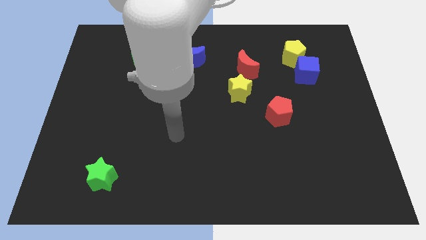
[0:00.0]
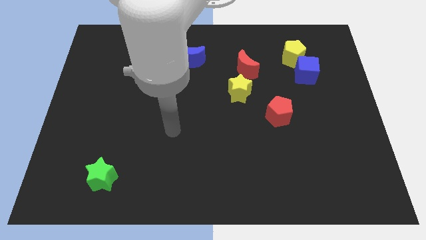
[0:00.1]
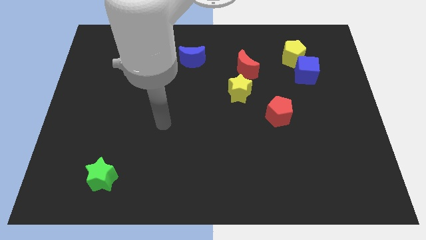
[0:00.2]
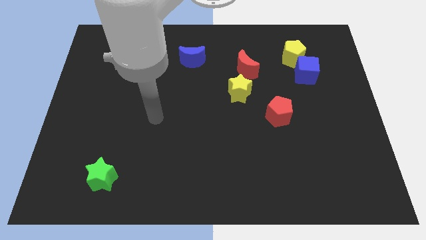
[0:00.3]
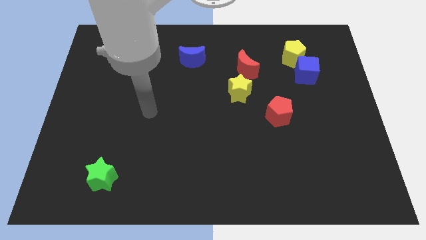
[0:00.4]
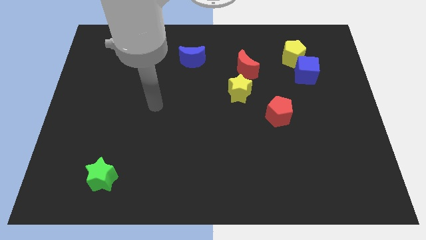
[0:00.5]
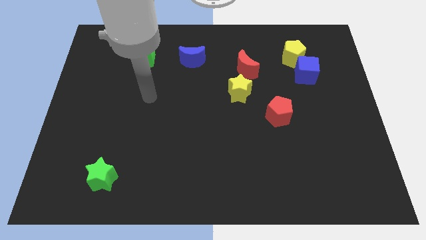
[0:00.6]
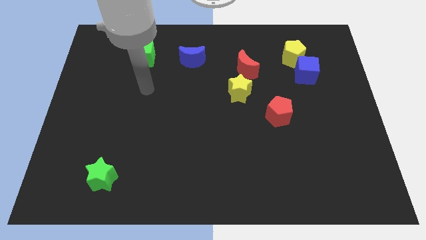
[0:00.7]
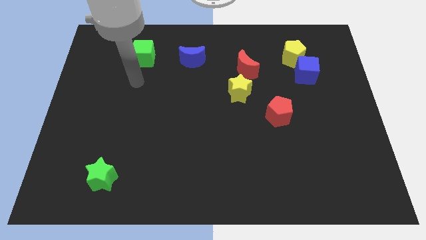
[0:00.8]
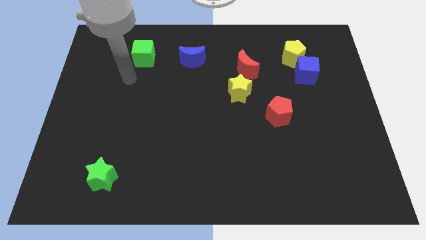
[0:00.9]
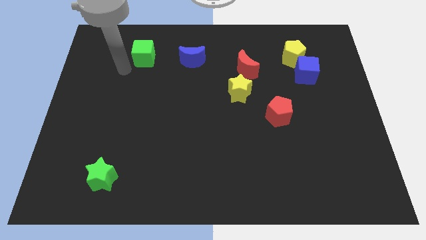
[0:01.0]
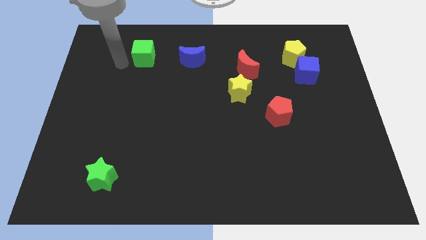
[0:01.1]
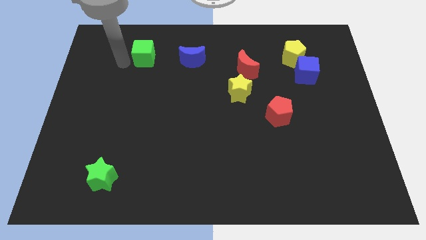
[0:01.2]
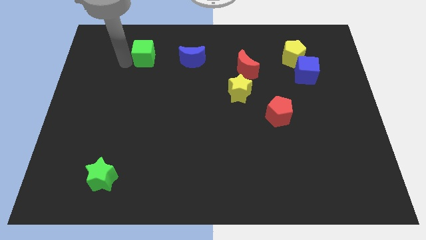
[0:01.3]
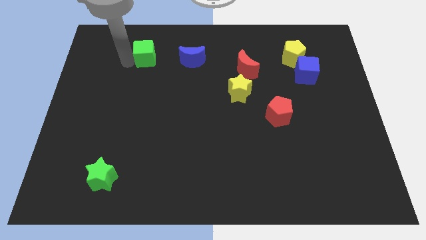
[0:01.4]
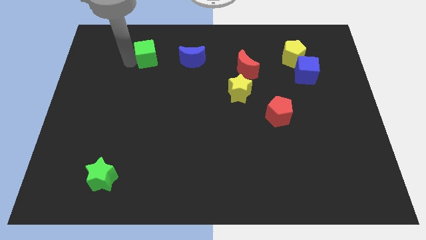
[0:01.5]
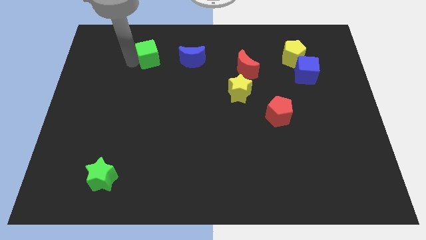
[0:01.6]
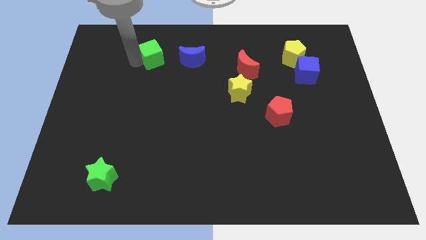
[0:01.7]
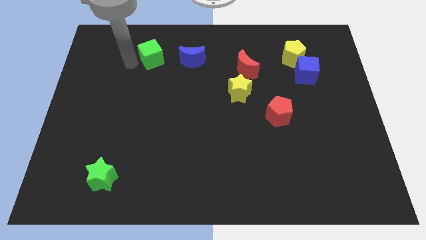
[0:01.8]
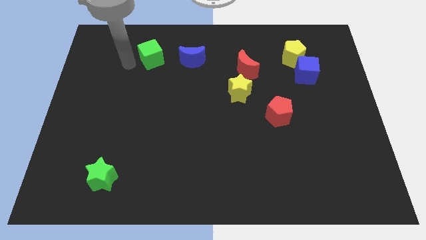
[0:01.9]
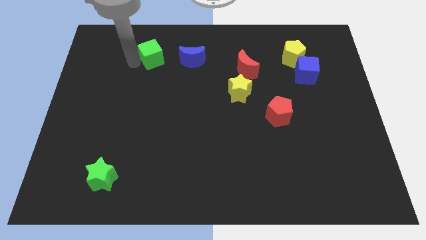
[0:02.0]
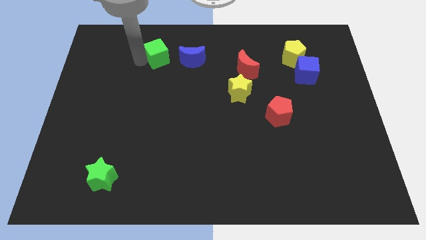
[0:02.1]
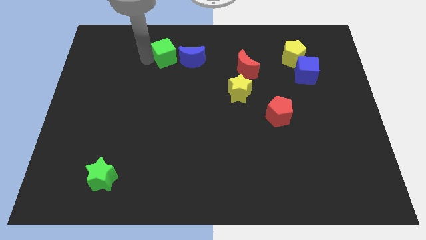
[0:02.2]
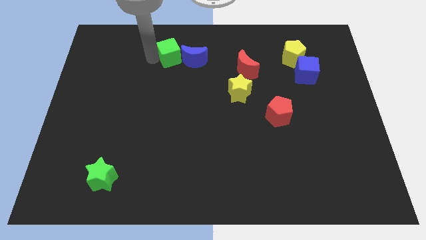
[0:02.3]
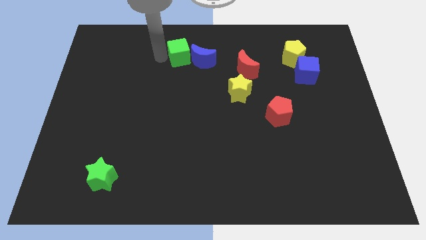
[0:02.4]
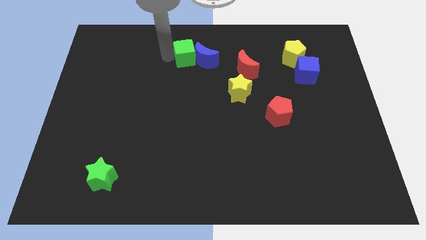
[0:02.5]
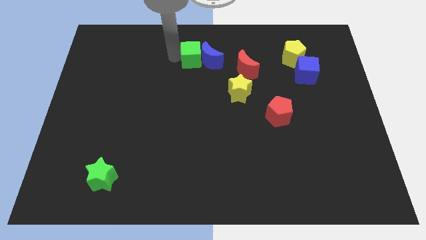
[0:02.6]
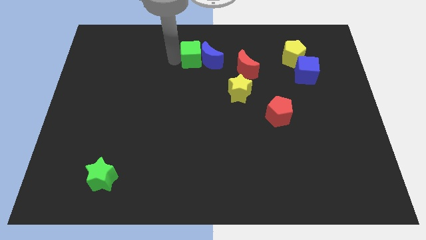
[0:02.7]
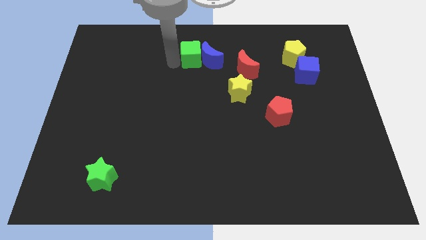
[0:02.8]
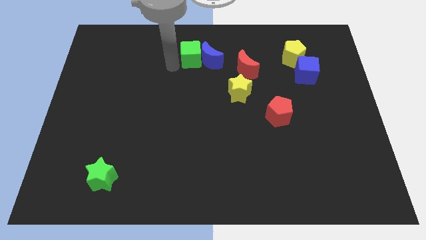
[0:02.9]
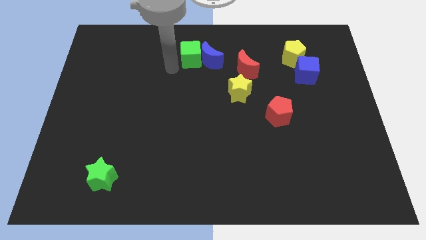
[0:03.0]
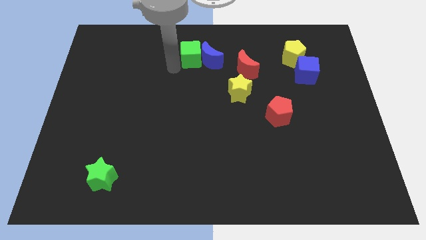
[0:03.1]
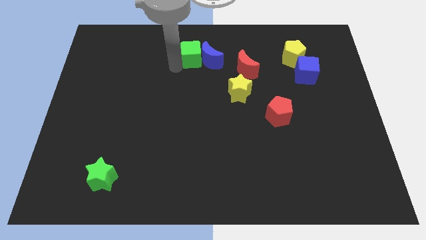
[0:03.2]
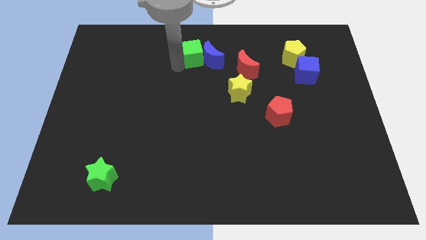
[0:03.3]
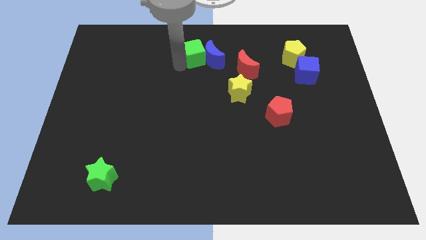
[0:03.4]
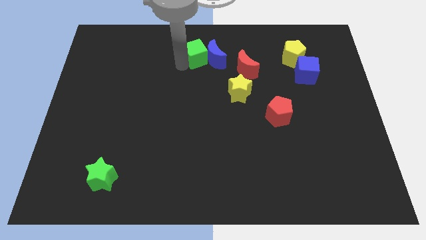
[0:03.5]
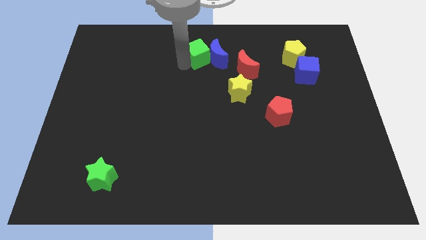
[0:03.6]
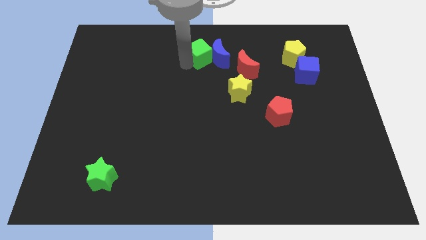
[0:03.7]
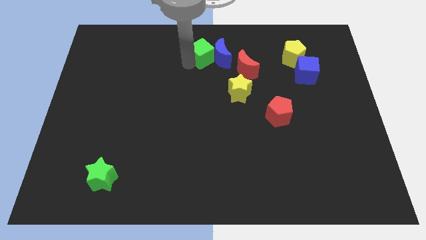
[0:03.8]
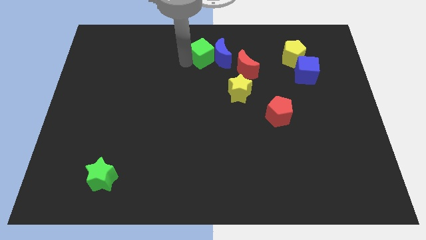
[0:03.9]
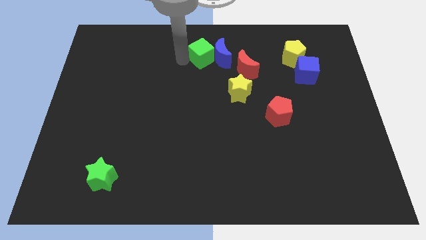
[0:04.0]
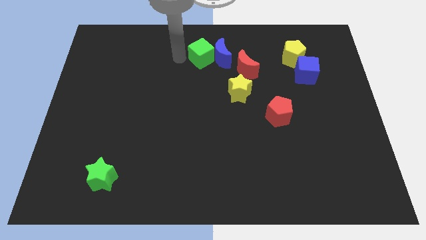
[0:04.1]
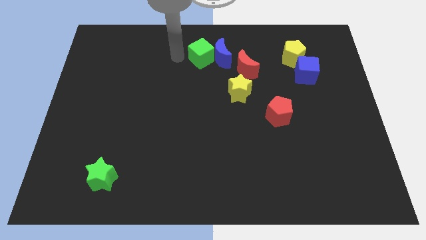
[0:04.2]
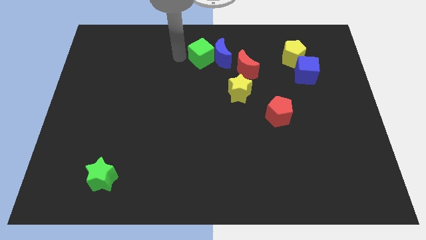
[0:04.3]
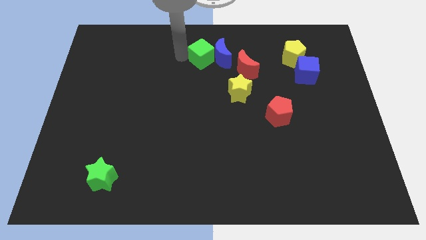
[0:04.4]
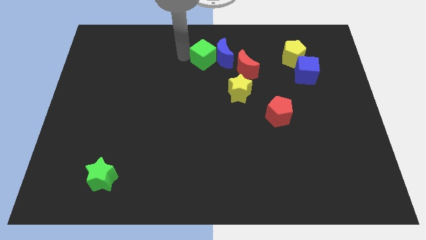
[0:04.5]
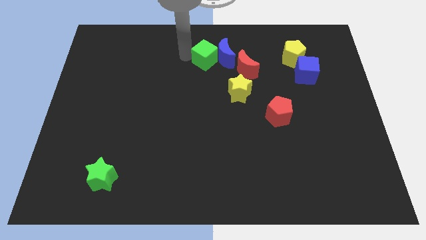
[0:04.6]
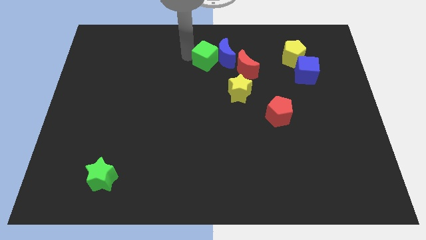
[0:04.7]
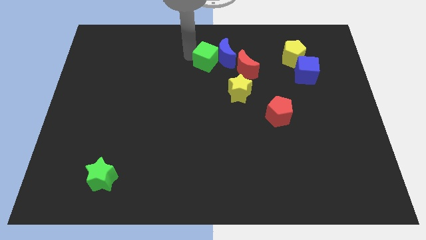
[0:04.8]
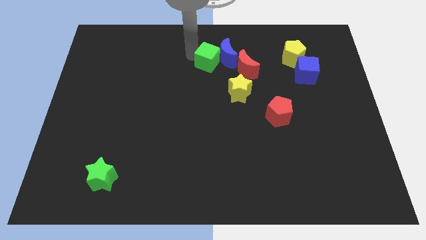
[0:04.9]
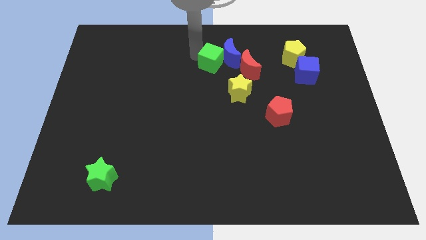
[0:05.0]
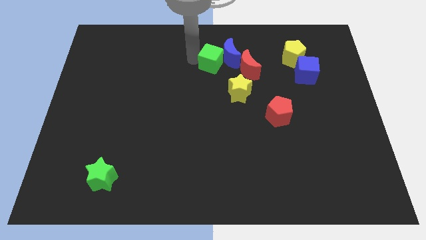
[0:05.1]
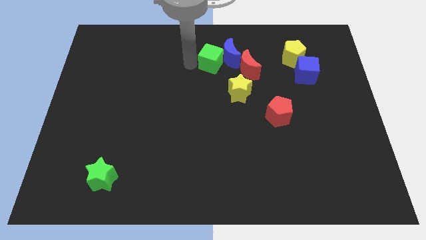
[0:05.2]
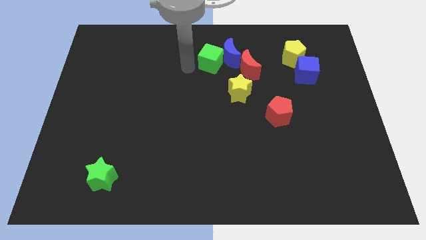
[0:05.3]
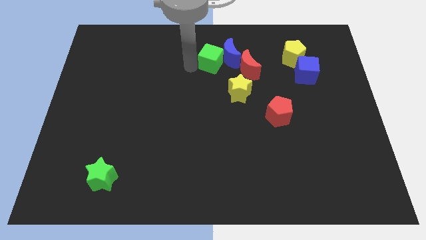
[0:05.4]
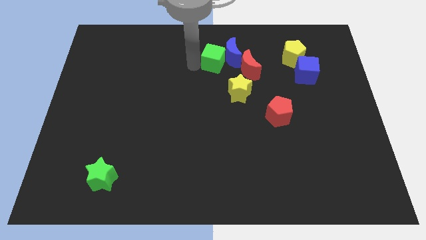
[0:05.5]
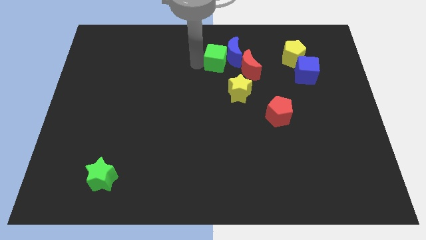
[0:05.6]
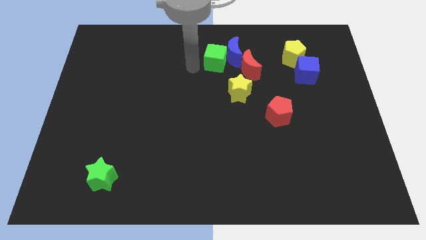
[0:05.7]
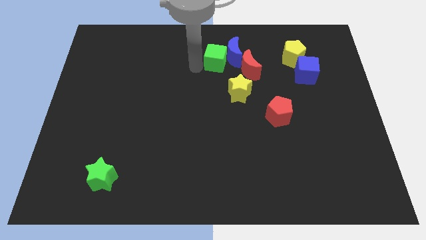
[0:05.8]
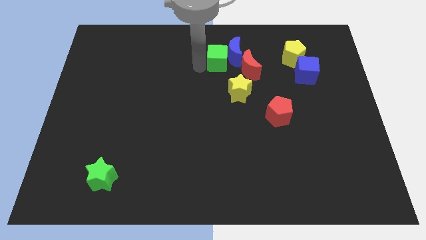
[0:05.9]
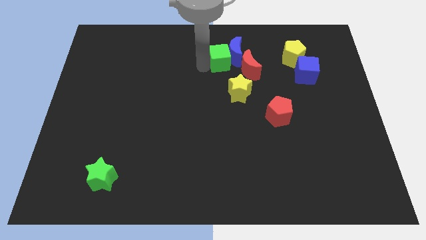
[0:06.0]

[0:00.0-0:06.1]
move the green cube to the right

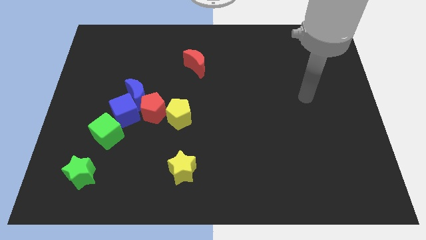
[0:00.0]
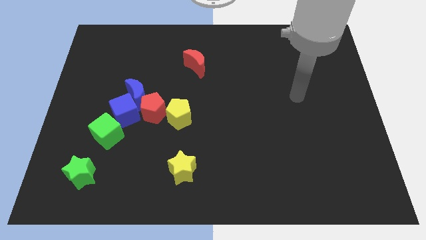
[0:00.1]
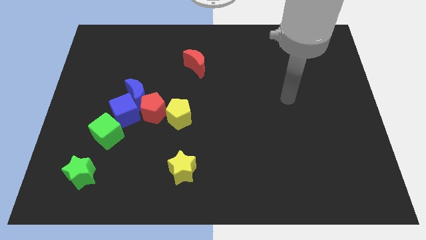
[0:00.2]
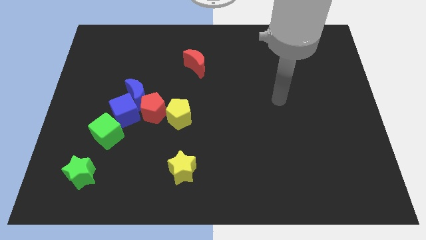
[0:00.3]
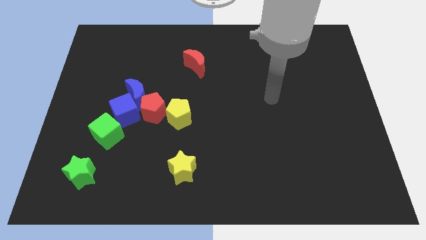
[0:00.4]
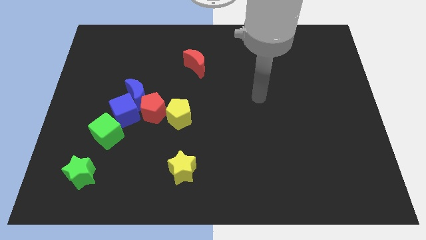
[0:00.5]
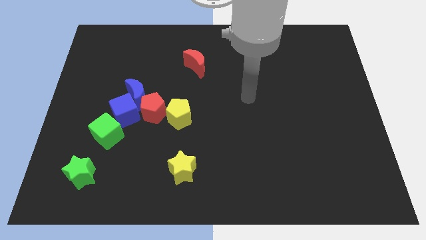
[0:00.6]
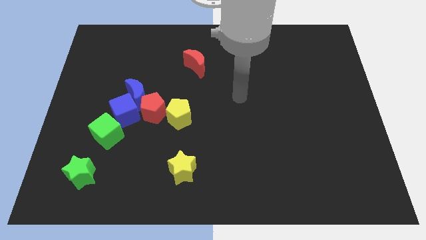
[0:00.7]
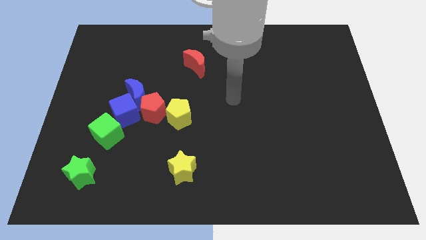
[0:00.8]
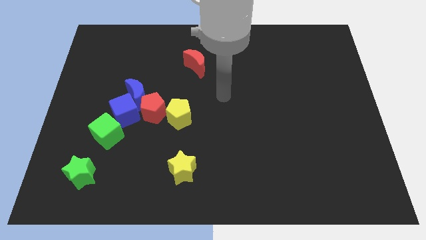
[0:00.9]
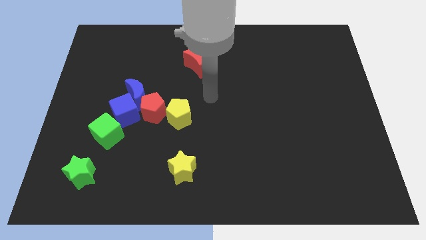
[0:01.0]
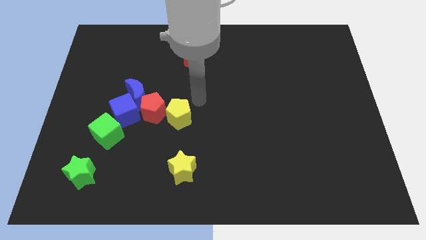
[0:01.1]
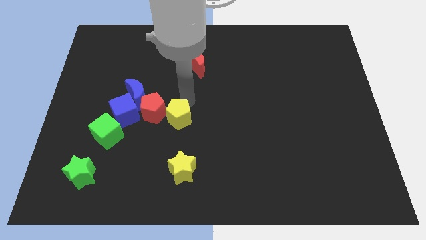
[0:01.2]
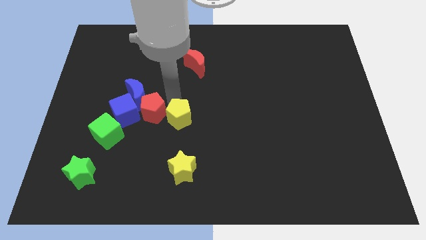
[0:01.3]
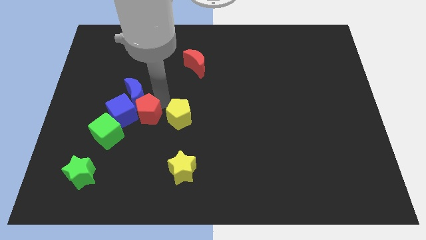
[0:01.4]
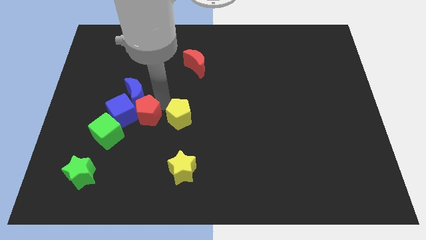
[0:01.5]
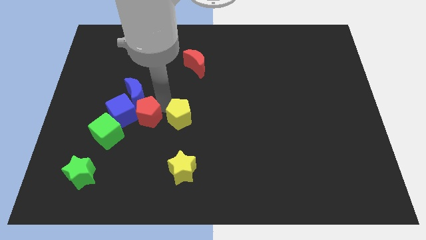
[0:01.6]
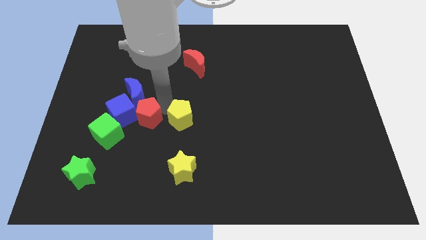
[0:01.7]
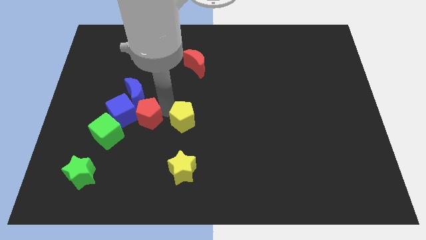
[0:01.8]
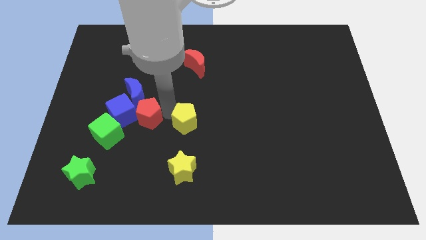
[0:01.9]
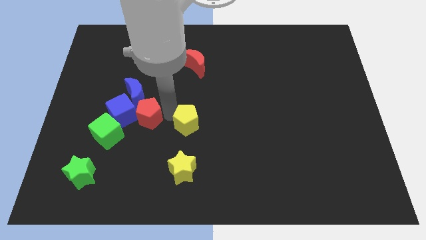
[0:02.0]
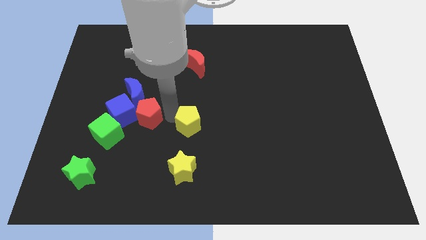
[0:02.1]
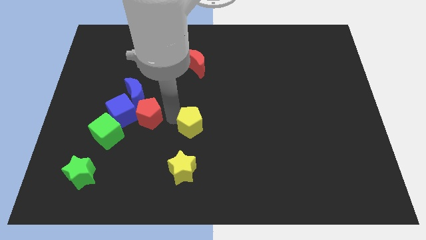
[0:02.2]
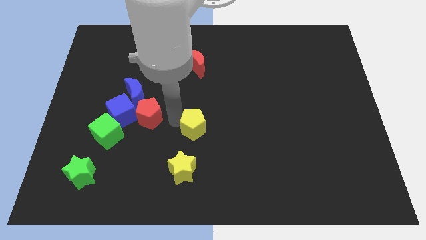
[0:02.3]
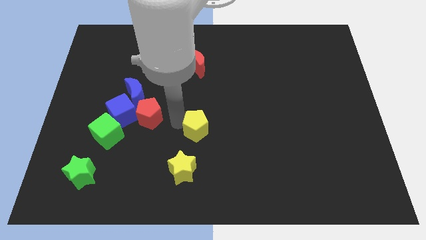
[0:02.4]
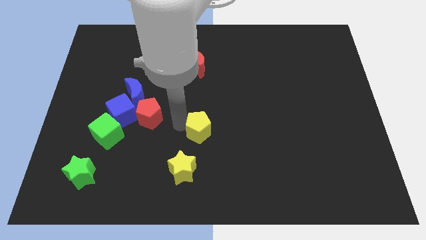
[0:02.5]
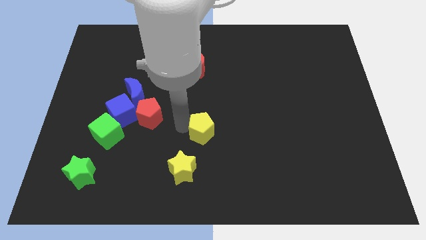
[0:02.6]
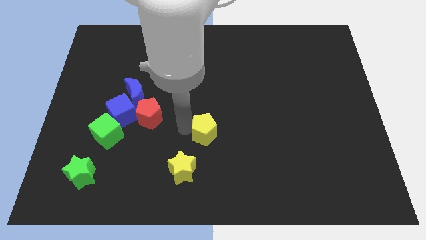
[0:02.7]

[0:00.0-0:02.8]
push the yellow pentagon down and then right a little
